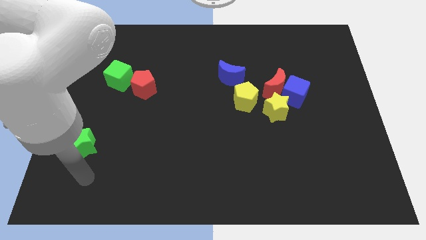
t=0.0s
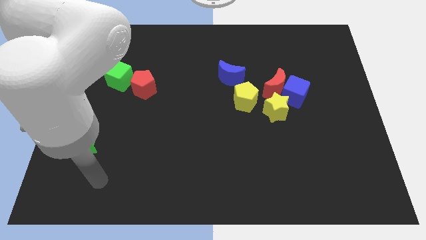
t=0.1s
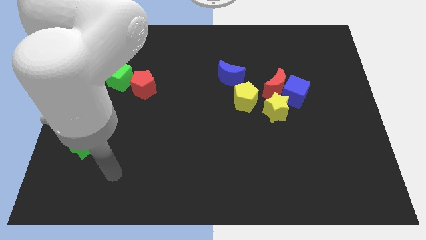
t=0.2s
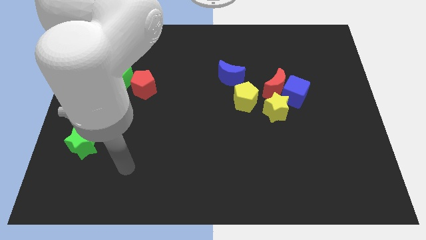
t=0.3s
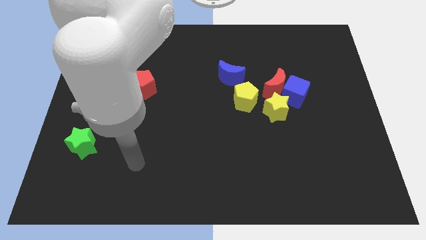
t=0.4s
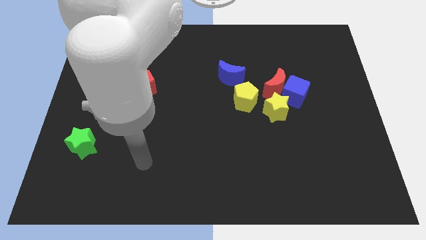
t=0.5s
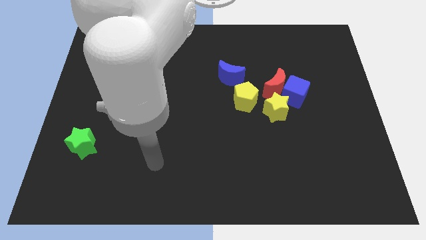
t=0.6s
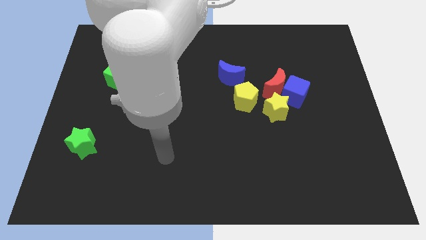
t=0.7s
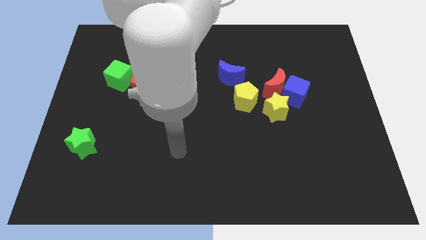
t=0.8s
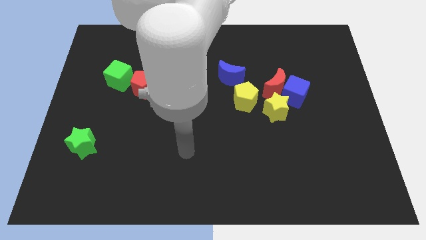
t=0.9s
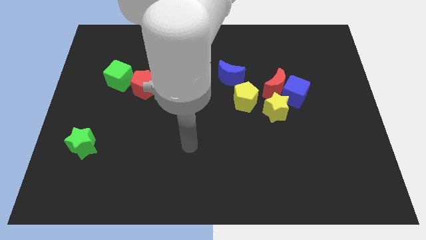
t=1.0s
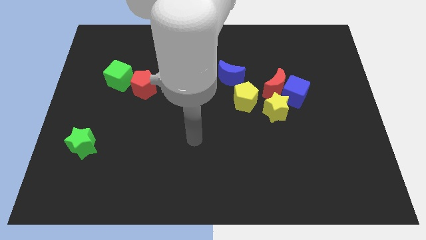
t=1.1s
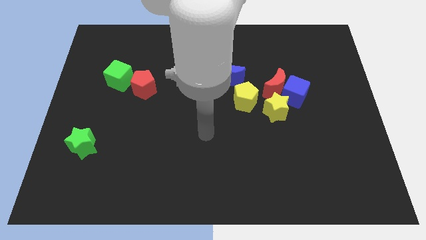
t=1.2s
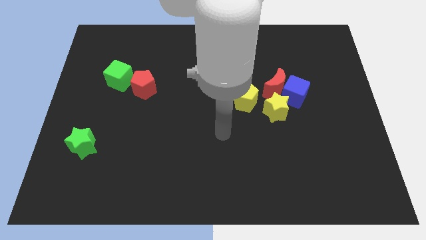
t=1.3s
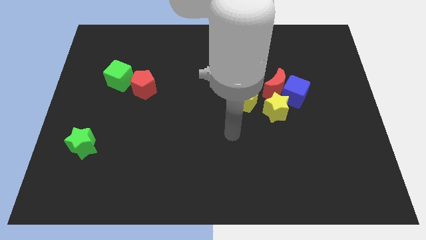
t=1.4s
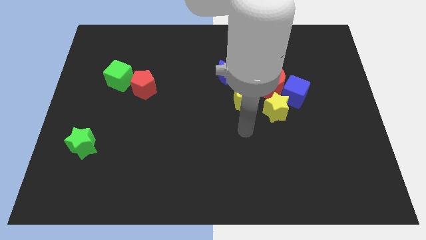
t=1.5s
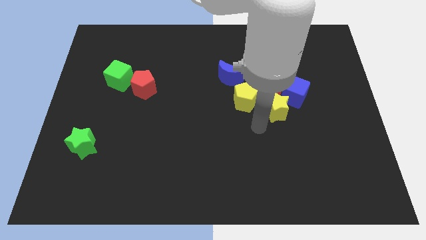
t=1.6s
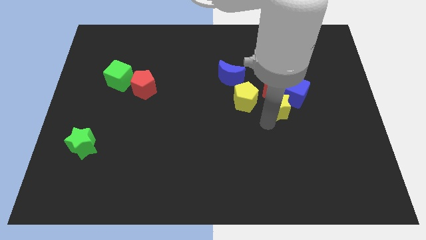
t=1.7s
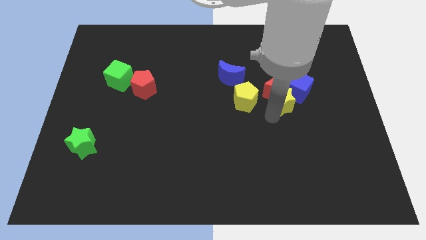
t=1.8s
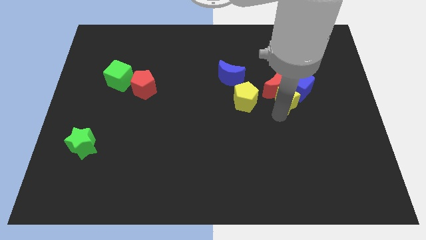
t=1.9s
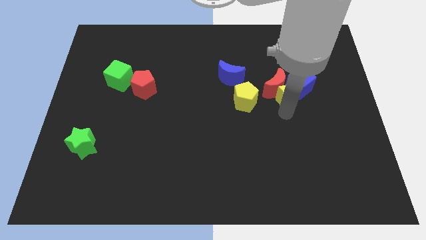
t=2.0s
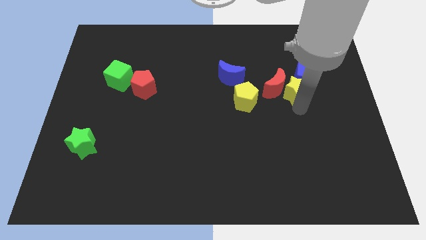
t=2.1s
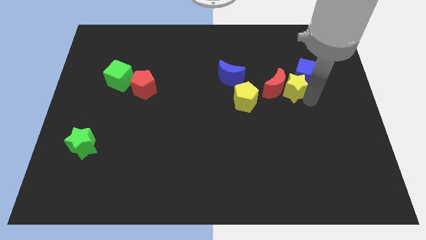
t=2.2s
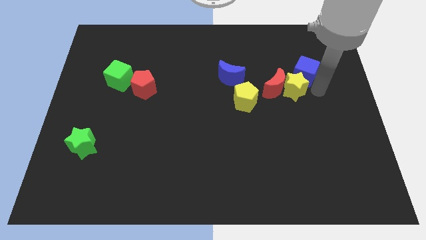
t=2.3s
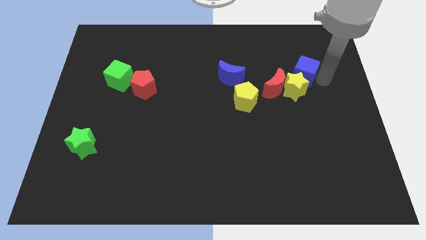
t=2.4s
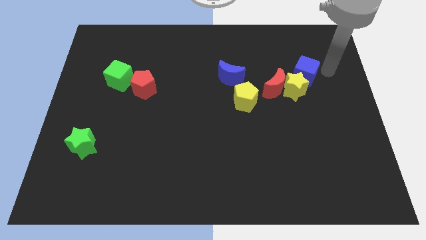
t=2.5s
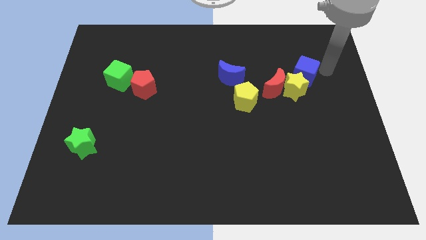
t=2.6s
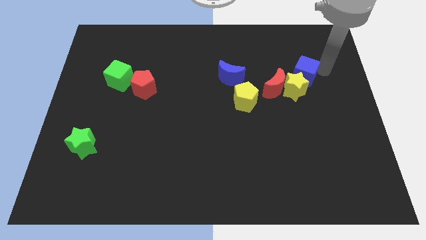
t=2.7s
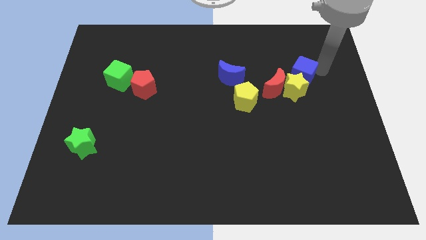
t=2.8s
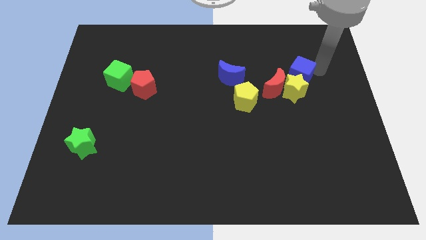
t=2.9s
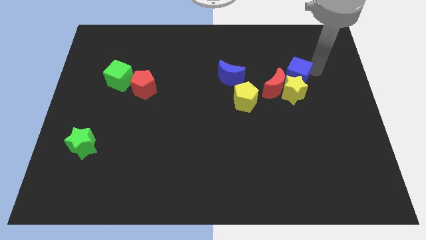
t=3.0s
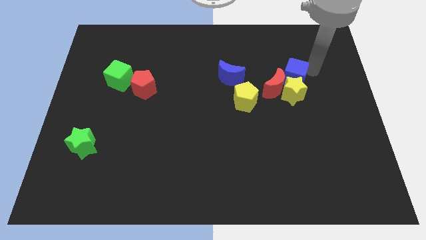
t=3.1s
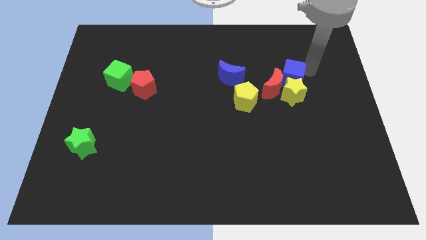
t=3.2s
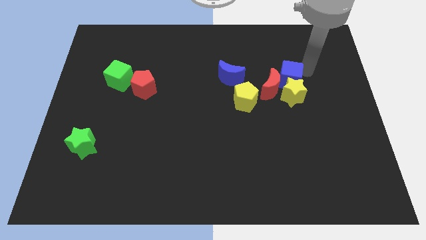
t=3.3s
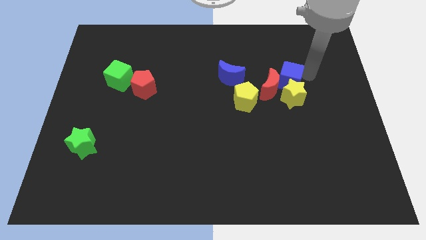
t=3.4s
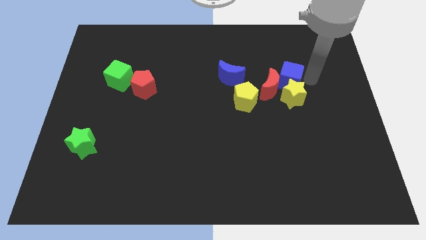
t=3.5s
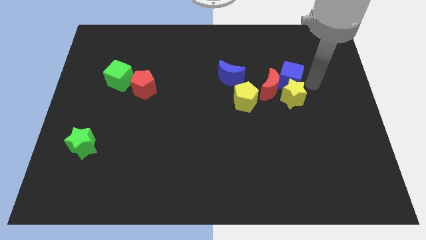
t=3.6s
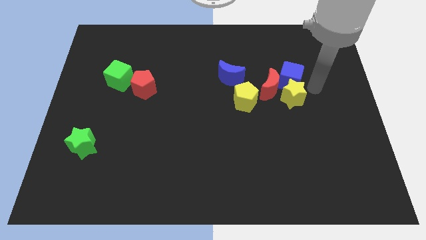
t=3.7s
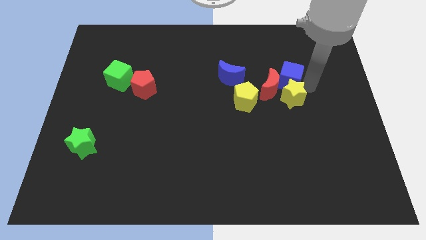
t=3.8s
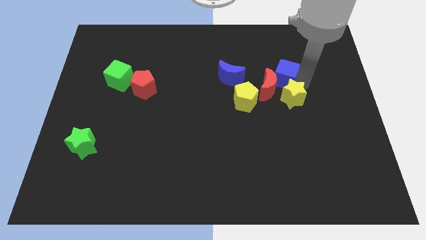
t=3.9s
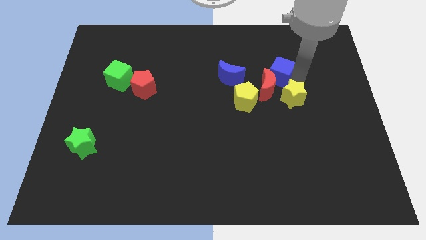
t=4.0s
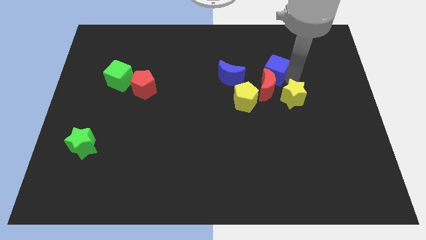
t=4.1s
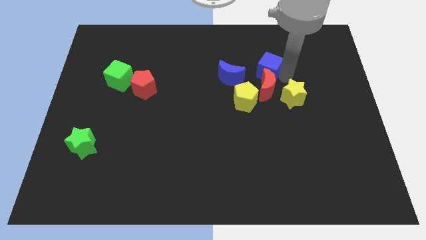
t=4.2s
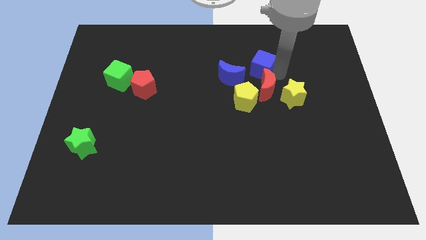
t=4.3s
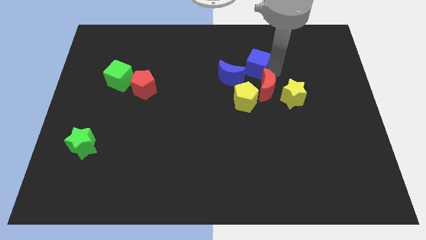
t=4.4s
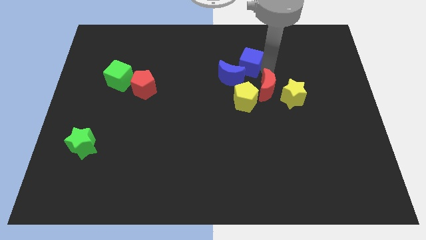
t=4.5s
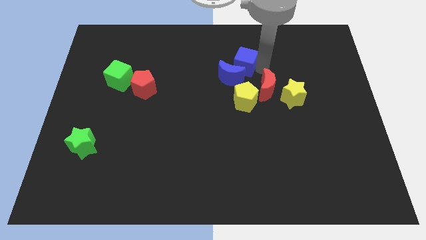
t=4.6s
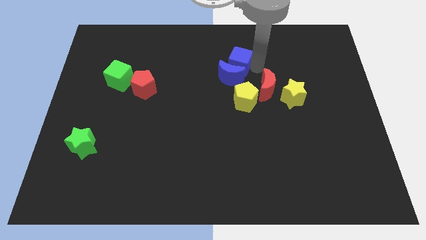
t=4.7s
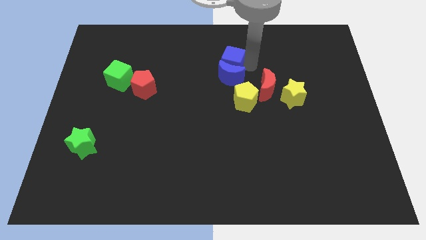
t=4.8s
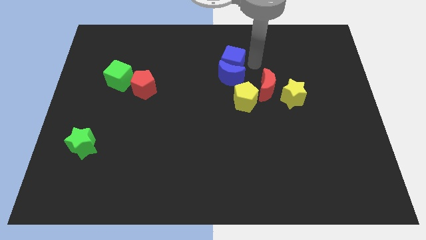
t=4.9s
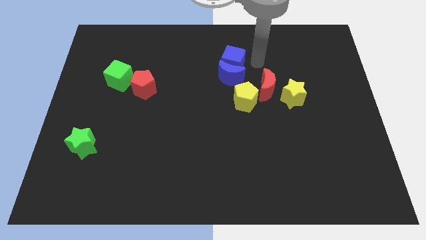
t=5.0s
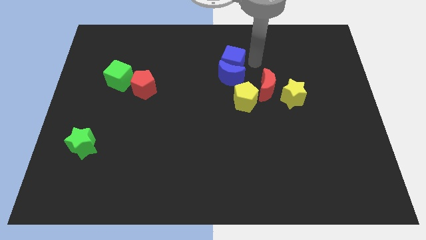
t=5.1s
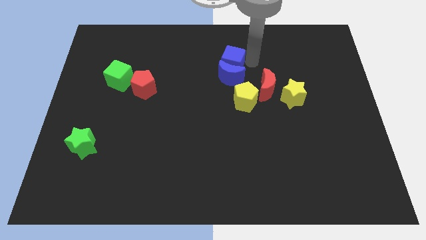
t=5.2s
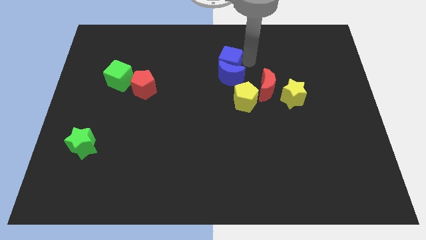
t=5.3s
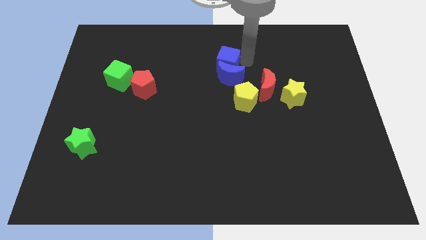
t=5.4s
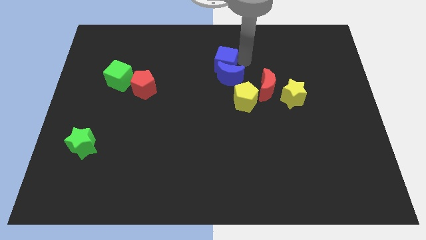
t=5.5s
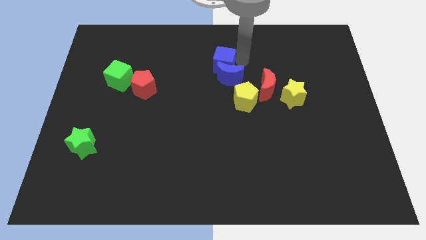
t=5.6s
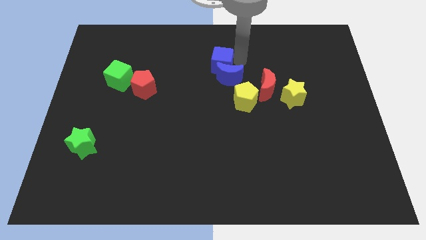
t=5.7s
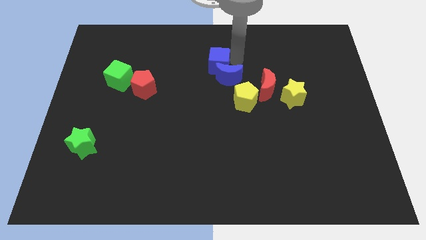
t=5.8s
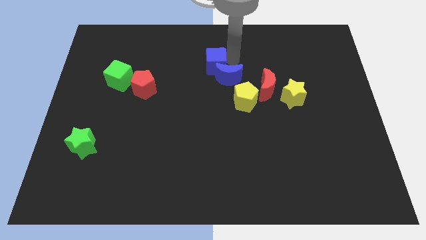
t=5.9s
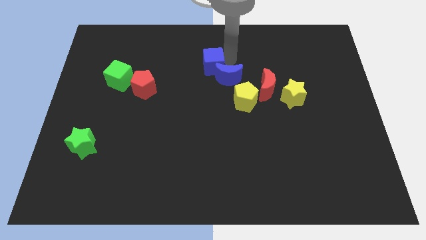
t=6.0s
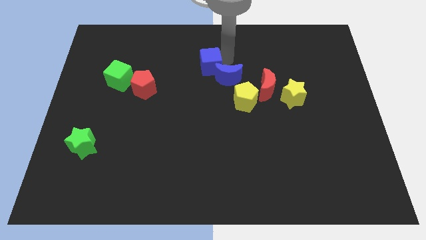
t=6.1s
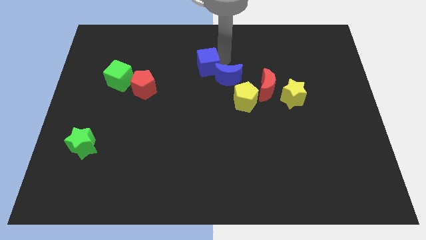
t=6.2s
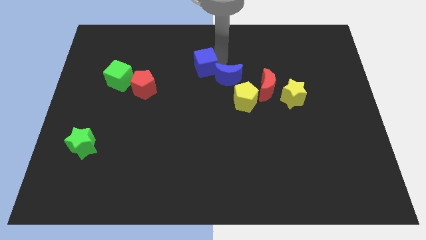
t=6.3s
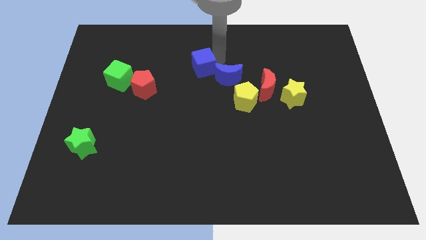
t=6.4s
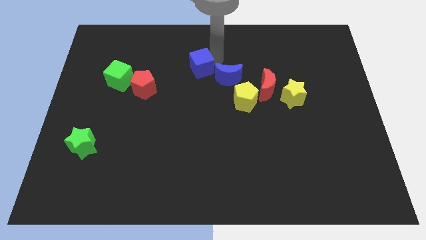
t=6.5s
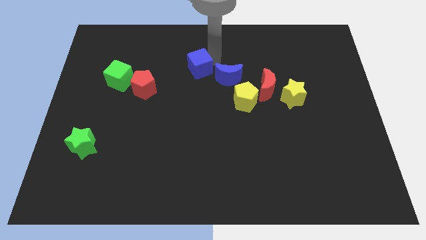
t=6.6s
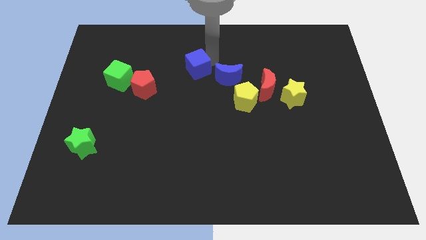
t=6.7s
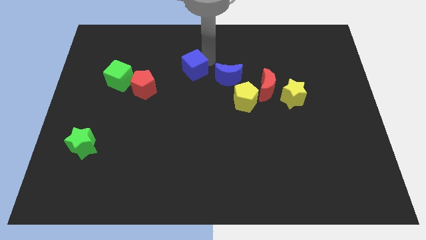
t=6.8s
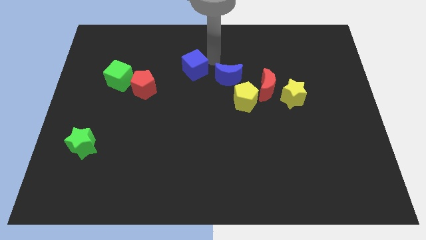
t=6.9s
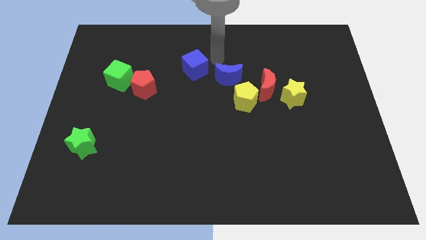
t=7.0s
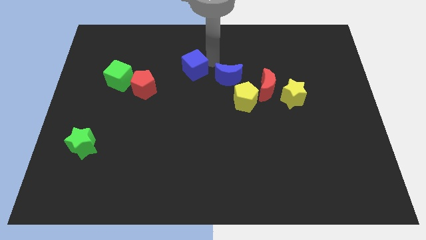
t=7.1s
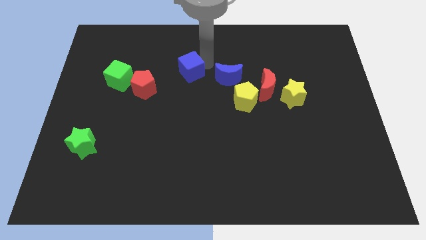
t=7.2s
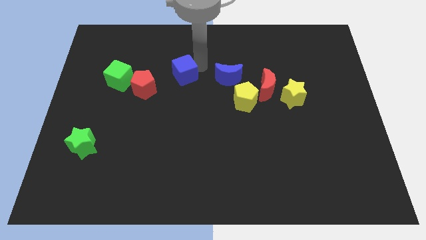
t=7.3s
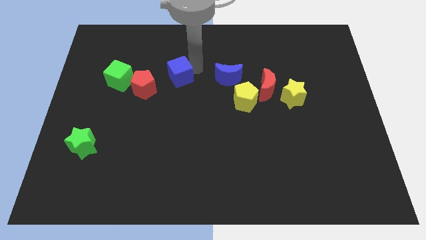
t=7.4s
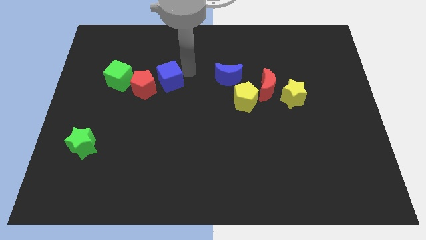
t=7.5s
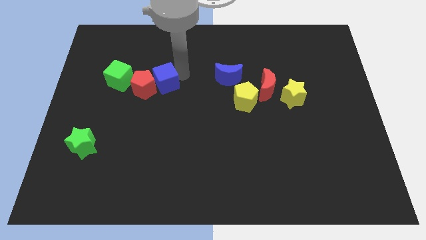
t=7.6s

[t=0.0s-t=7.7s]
put the blue cube close to the red pentagon
